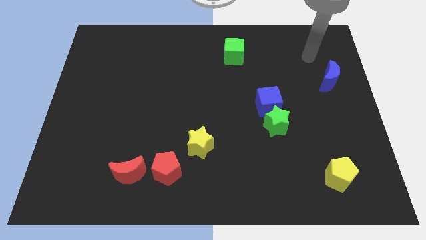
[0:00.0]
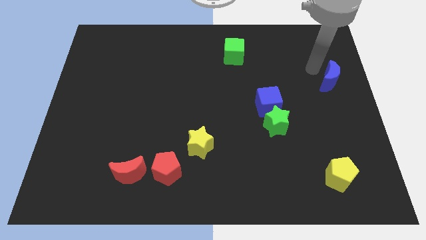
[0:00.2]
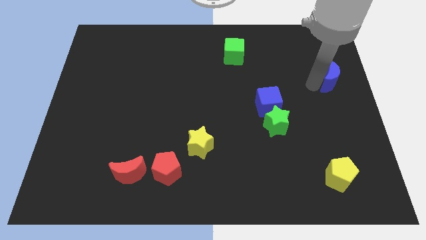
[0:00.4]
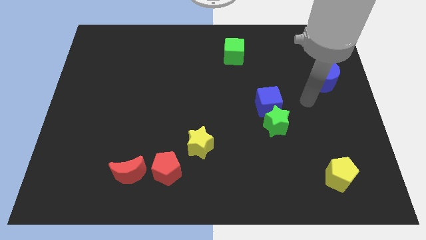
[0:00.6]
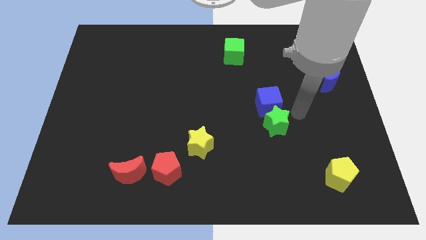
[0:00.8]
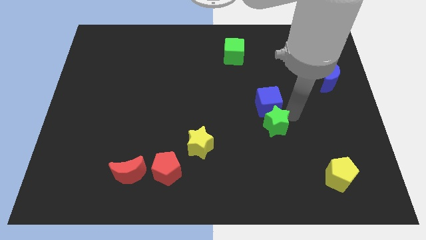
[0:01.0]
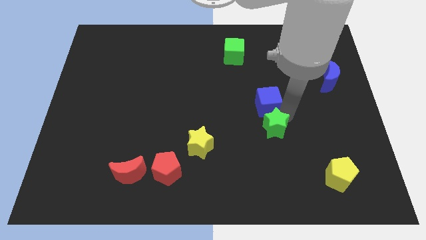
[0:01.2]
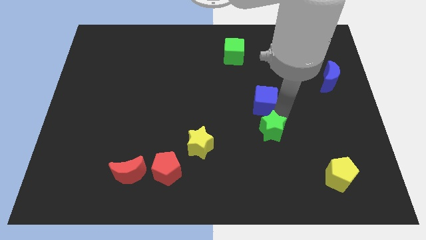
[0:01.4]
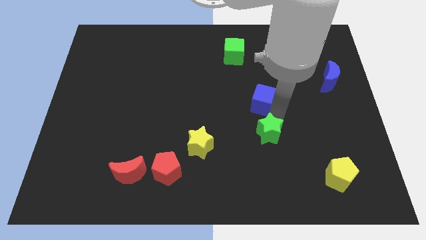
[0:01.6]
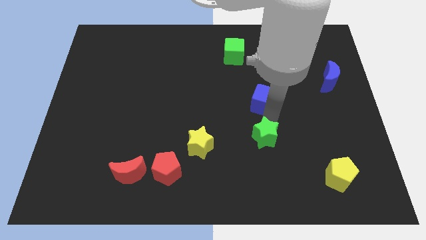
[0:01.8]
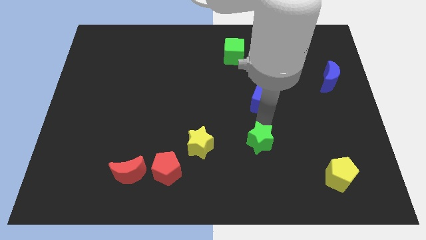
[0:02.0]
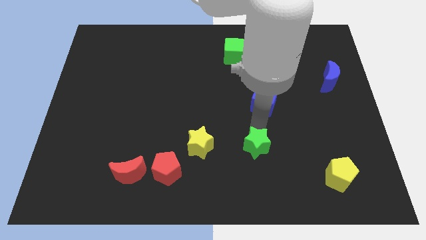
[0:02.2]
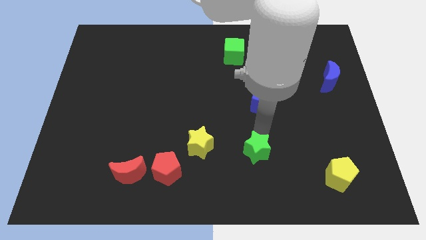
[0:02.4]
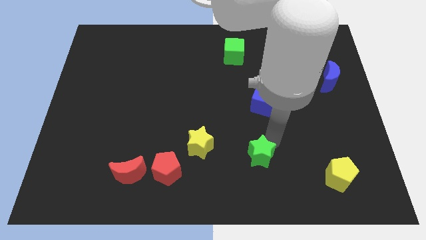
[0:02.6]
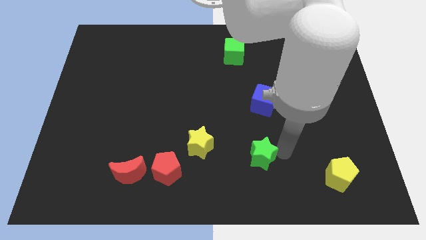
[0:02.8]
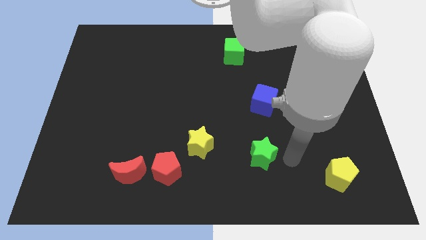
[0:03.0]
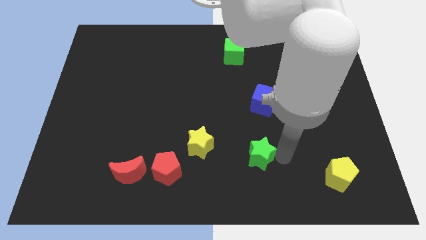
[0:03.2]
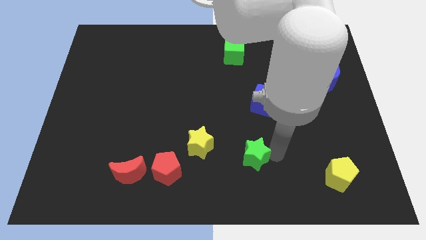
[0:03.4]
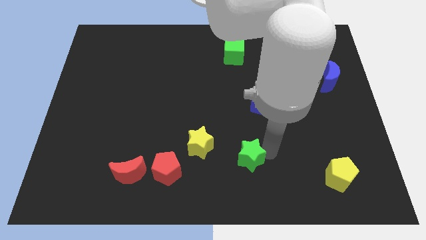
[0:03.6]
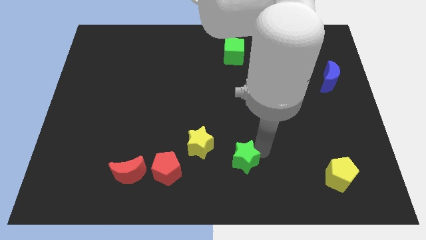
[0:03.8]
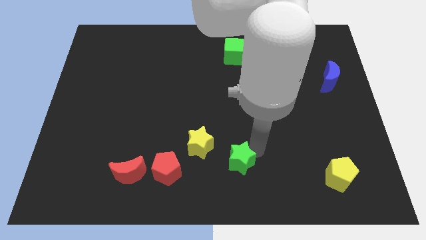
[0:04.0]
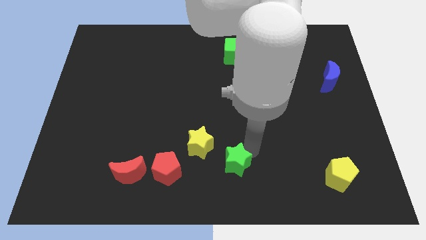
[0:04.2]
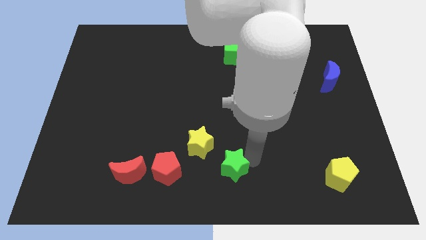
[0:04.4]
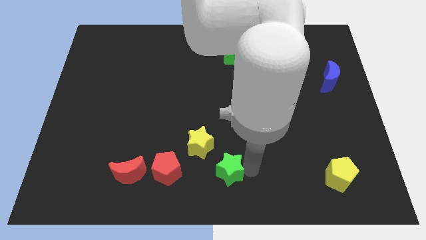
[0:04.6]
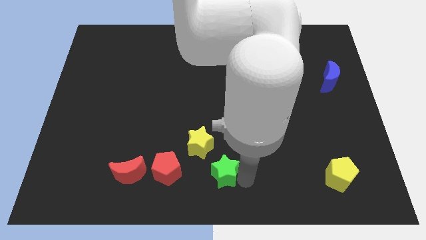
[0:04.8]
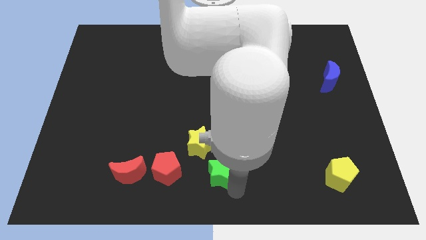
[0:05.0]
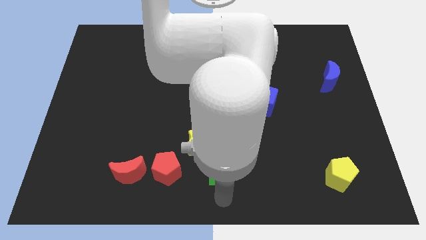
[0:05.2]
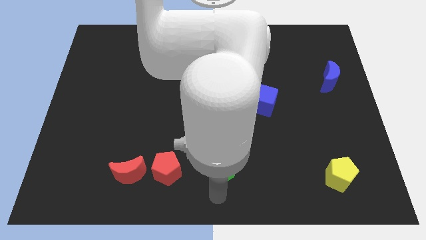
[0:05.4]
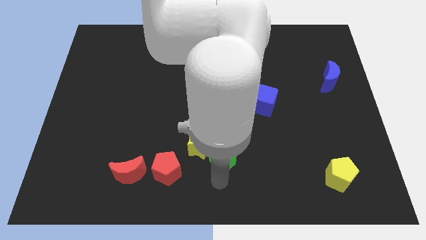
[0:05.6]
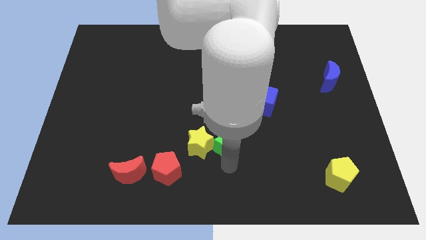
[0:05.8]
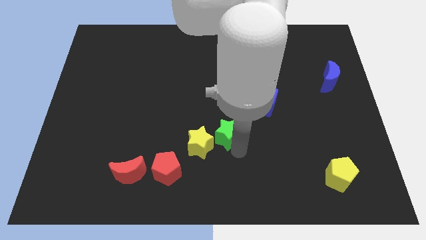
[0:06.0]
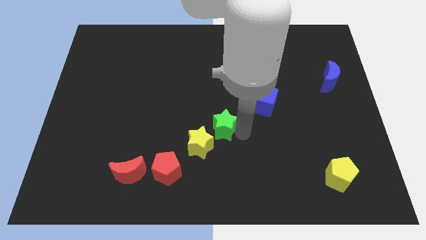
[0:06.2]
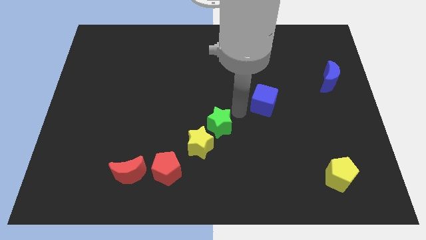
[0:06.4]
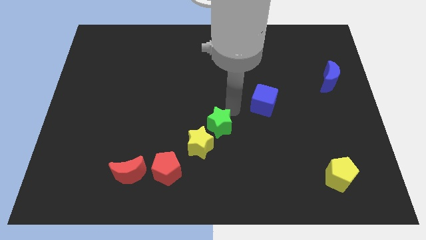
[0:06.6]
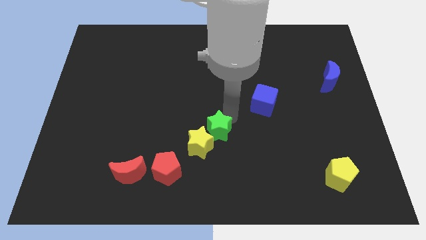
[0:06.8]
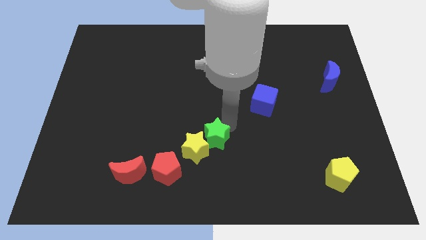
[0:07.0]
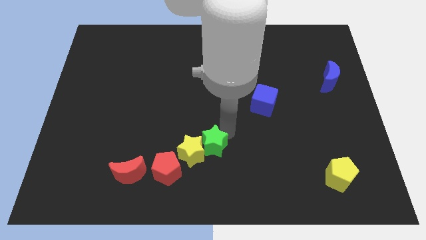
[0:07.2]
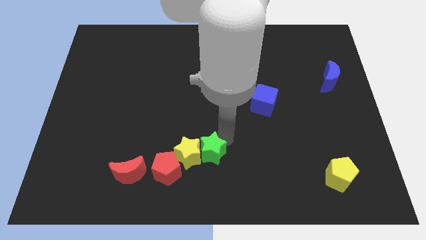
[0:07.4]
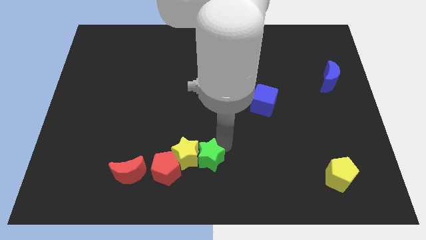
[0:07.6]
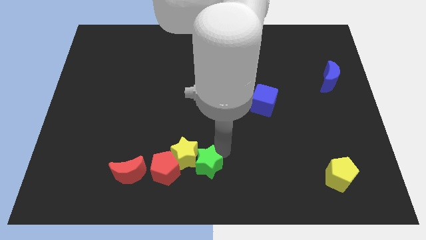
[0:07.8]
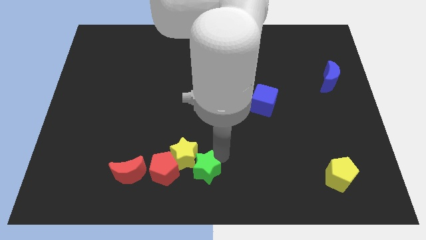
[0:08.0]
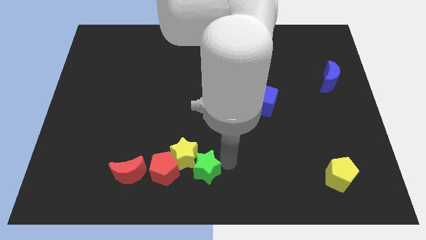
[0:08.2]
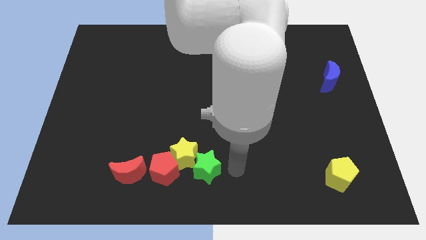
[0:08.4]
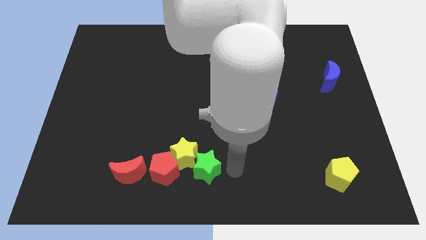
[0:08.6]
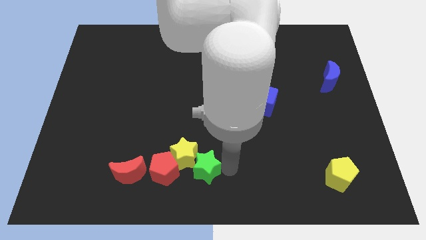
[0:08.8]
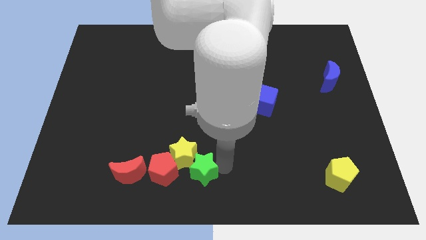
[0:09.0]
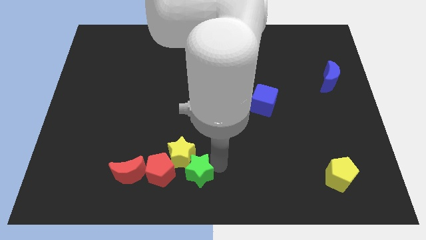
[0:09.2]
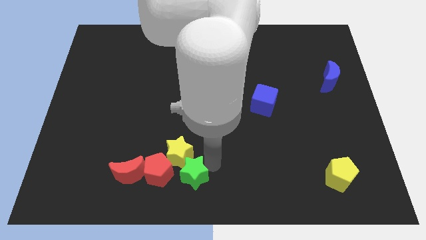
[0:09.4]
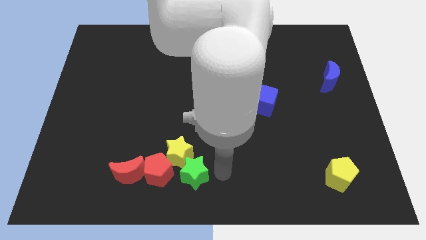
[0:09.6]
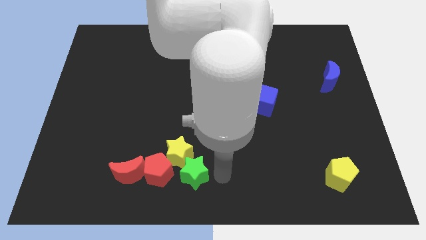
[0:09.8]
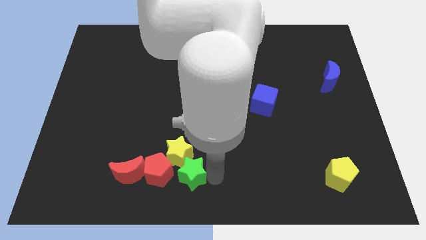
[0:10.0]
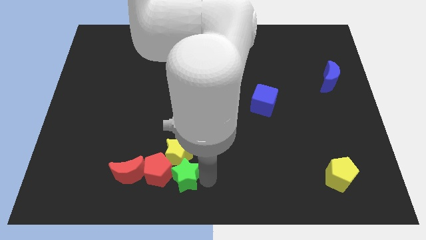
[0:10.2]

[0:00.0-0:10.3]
put the green star to the red pentagon

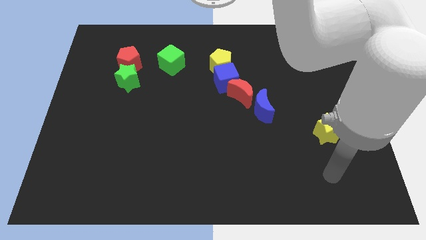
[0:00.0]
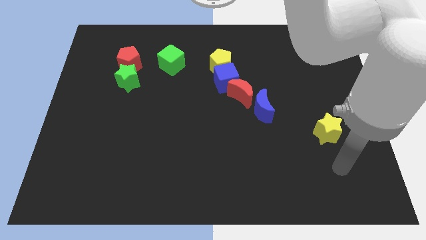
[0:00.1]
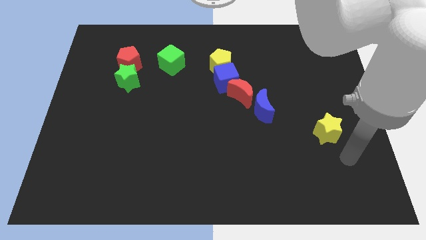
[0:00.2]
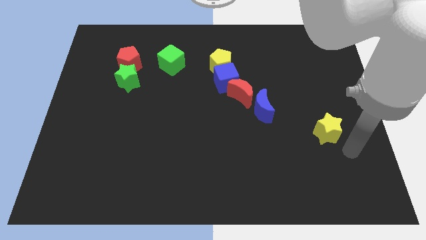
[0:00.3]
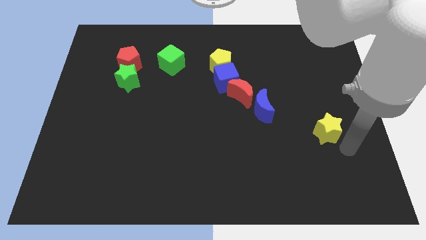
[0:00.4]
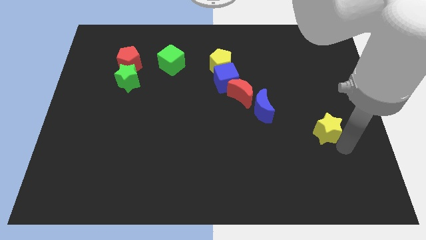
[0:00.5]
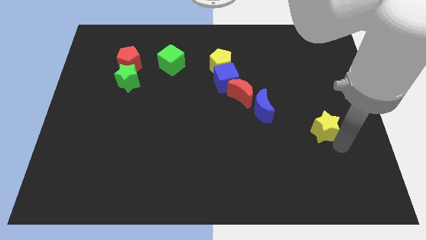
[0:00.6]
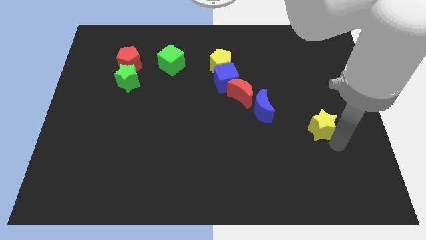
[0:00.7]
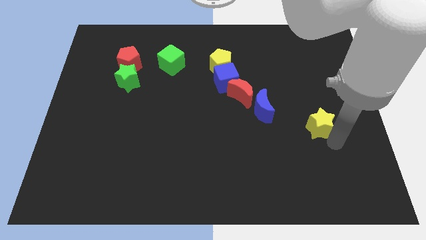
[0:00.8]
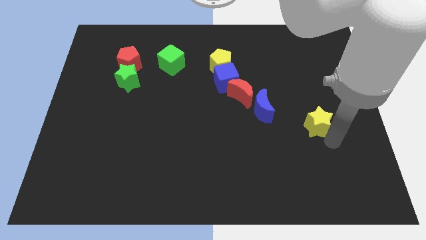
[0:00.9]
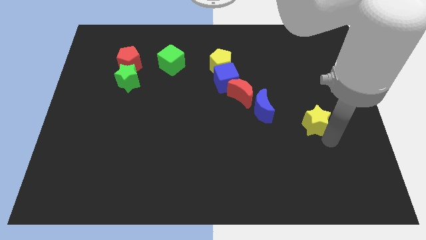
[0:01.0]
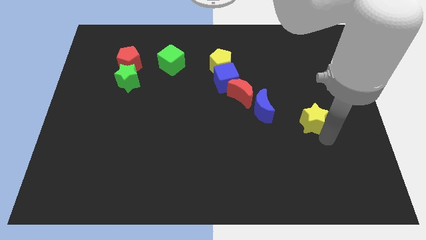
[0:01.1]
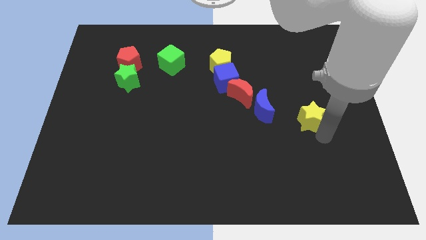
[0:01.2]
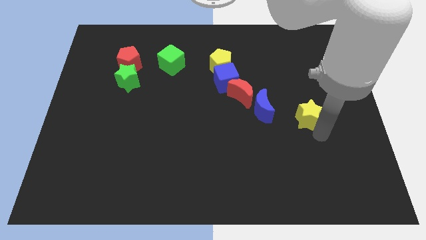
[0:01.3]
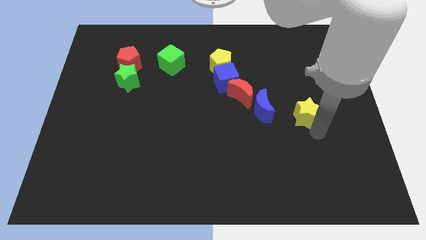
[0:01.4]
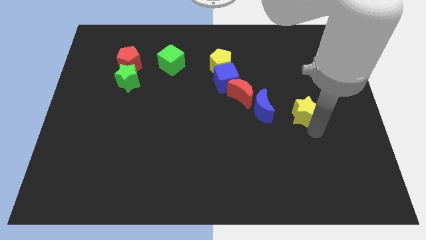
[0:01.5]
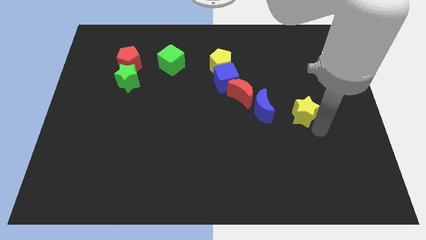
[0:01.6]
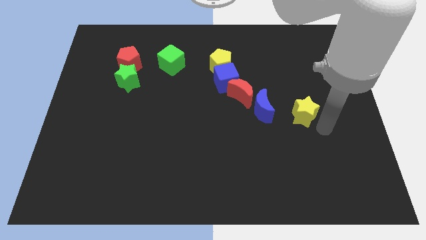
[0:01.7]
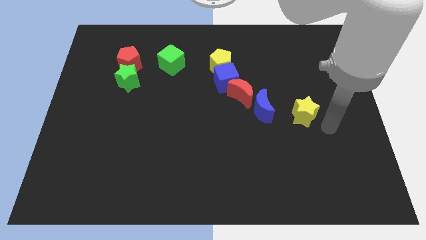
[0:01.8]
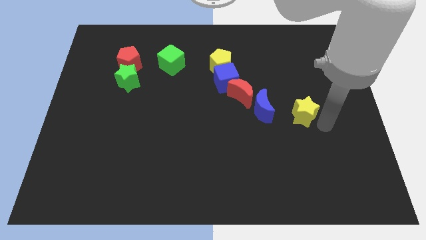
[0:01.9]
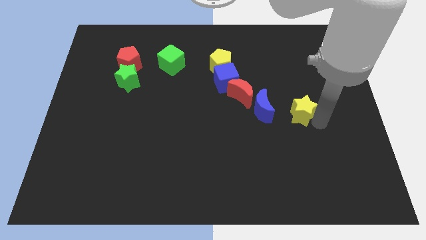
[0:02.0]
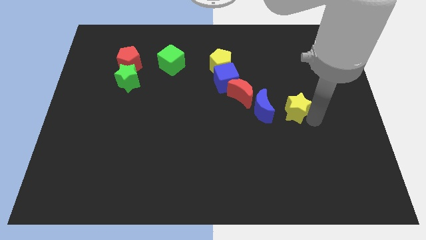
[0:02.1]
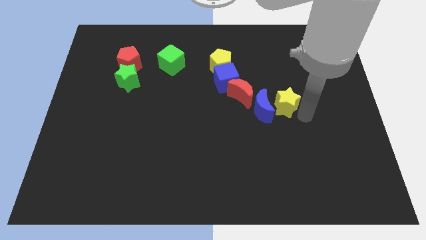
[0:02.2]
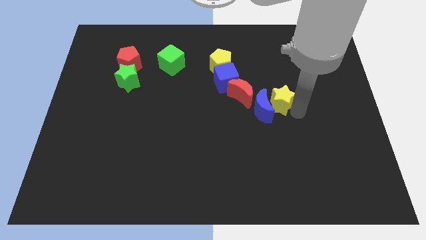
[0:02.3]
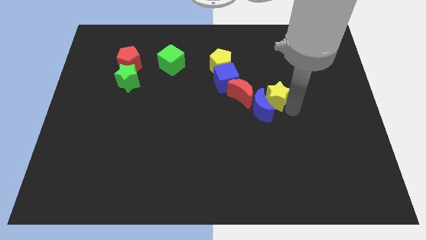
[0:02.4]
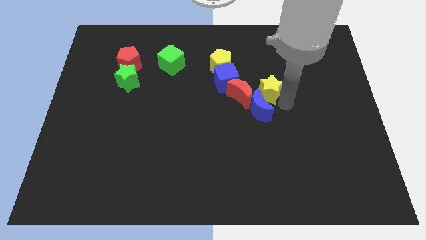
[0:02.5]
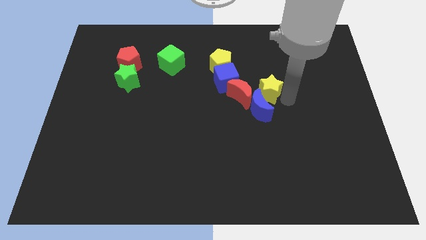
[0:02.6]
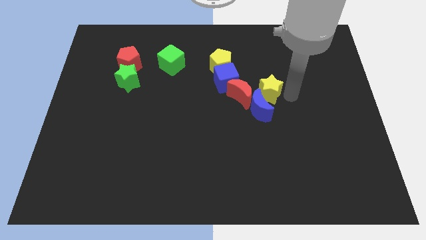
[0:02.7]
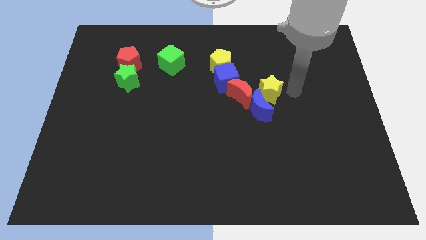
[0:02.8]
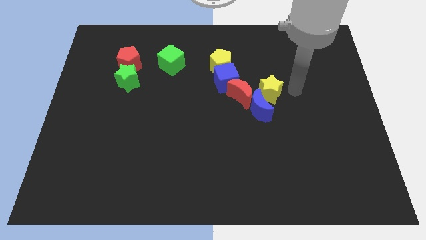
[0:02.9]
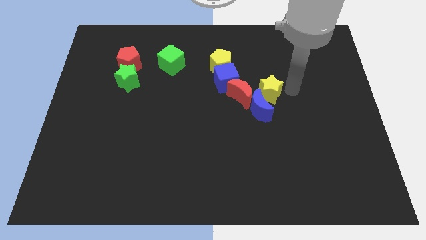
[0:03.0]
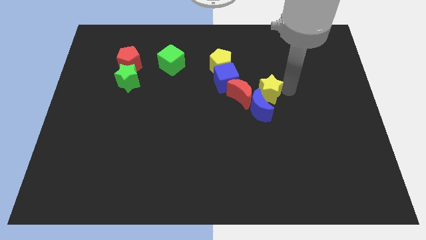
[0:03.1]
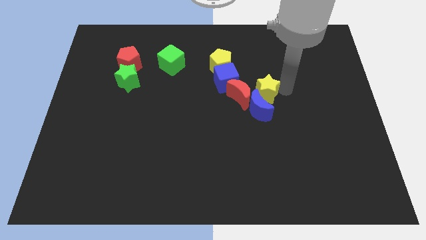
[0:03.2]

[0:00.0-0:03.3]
push the yellow star close to the red moon
